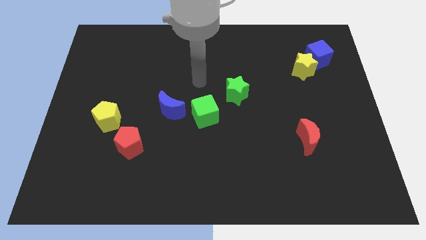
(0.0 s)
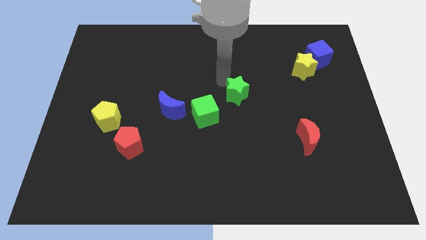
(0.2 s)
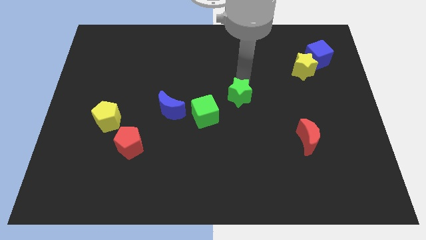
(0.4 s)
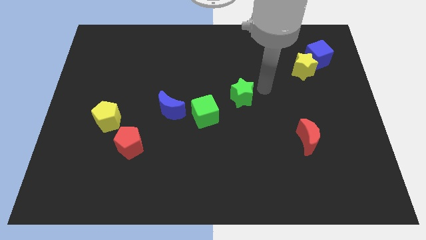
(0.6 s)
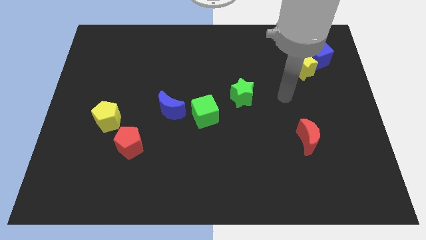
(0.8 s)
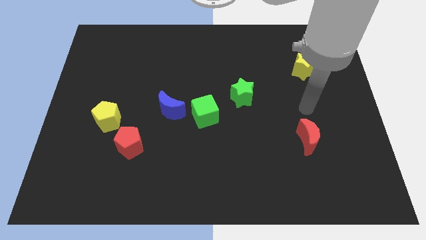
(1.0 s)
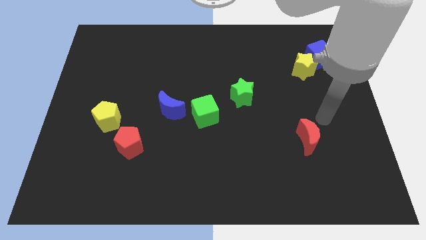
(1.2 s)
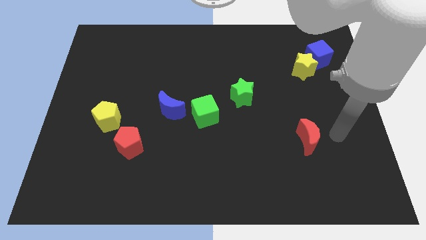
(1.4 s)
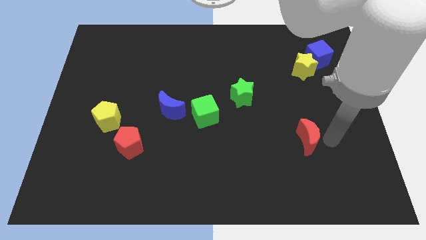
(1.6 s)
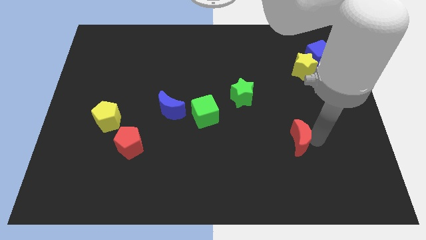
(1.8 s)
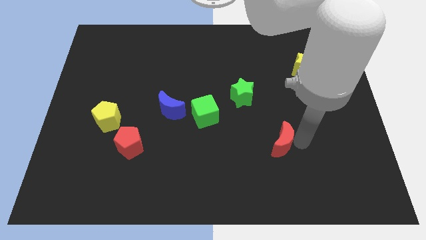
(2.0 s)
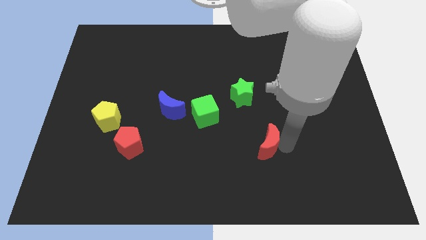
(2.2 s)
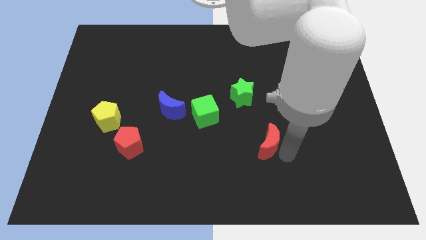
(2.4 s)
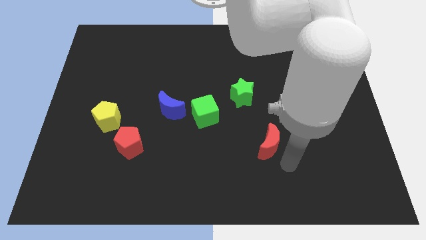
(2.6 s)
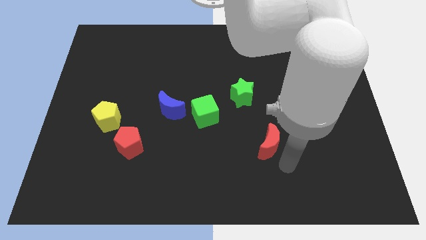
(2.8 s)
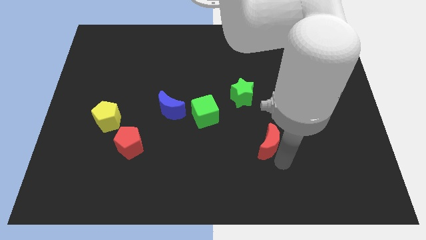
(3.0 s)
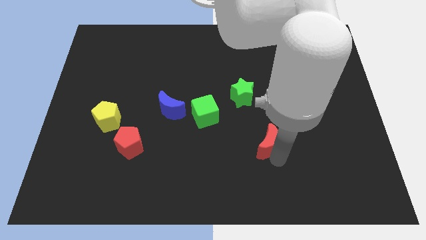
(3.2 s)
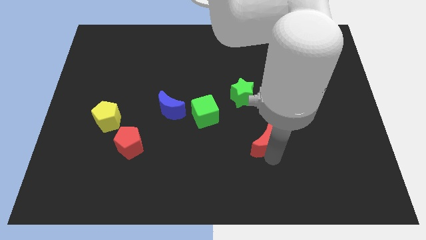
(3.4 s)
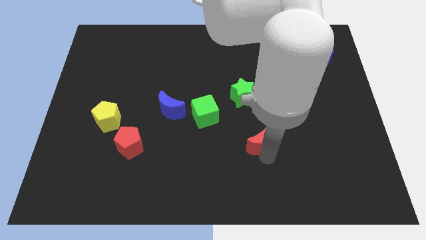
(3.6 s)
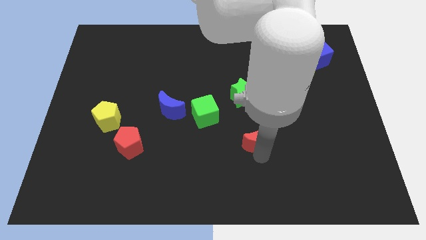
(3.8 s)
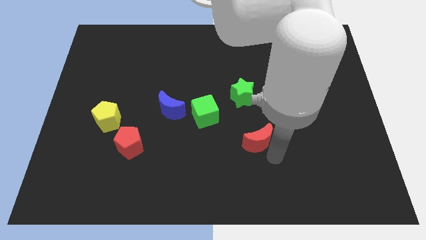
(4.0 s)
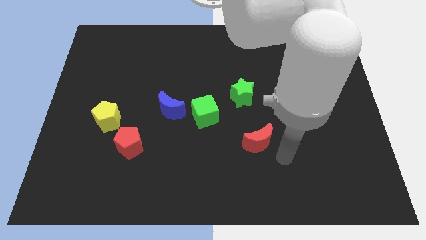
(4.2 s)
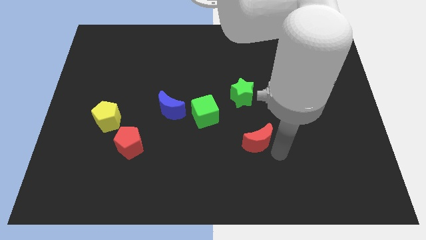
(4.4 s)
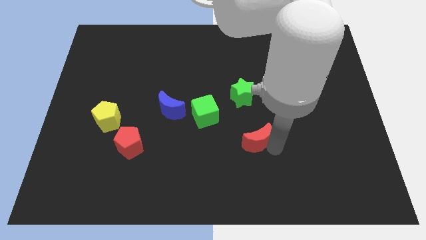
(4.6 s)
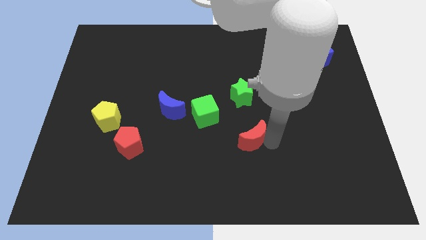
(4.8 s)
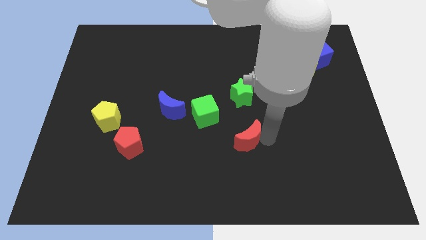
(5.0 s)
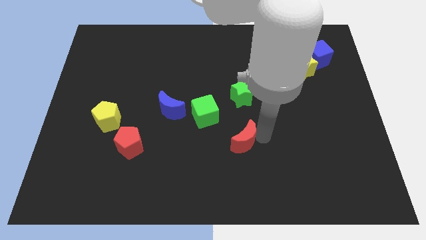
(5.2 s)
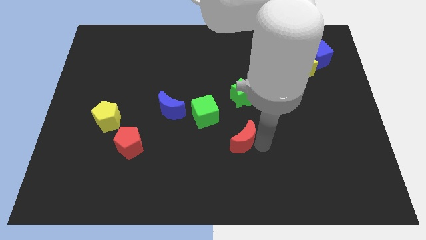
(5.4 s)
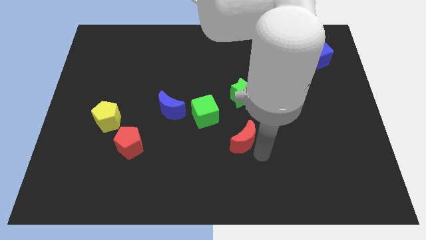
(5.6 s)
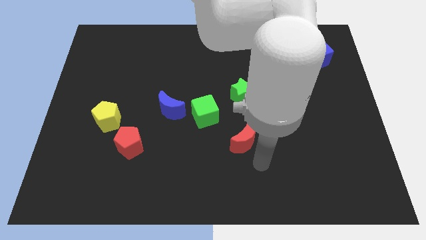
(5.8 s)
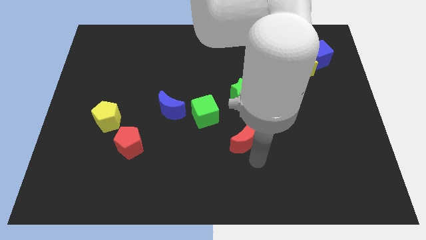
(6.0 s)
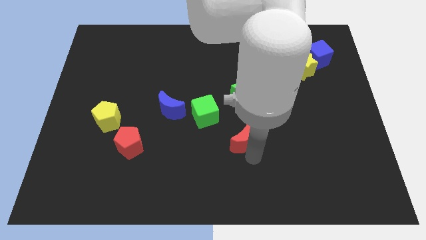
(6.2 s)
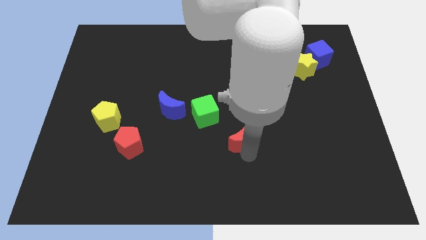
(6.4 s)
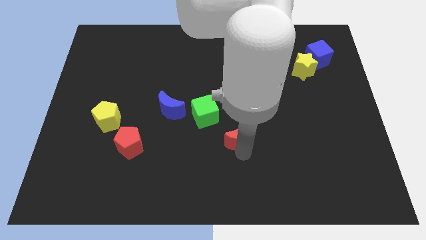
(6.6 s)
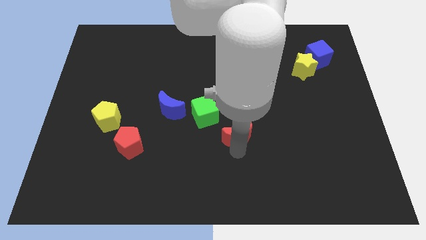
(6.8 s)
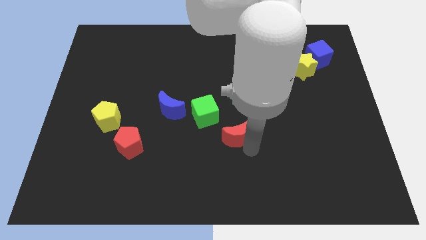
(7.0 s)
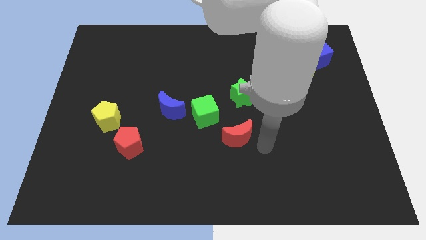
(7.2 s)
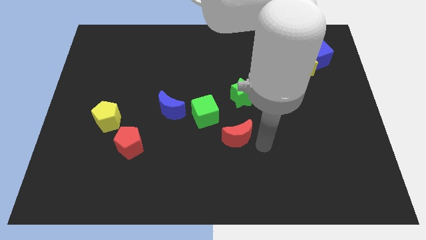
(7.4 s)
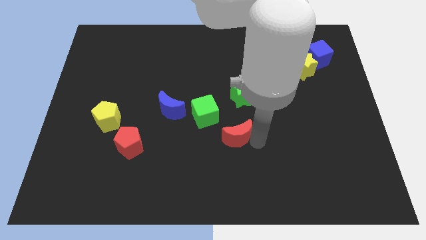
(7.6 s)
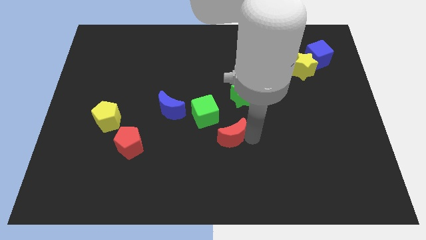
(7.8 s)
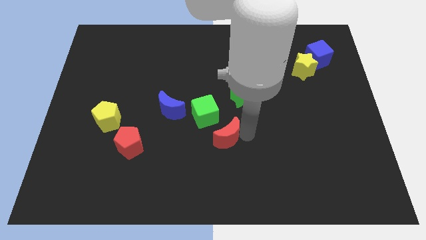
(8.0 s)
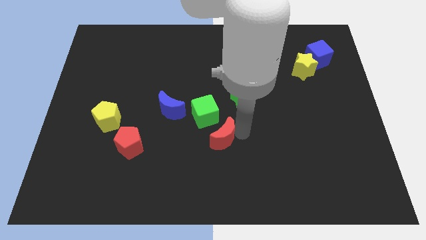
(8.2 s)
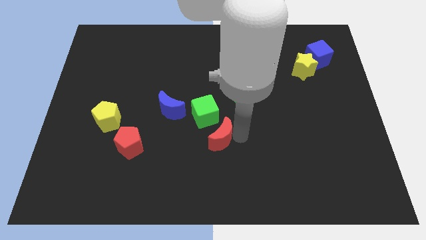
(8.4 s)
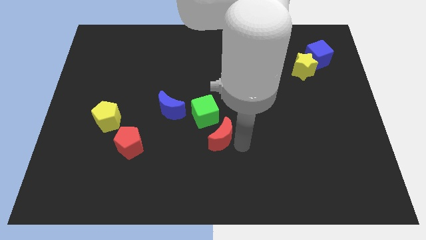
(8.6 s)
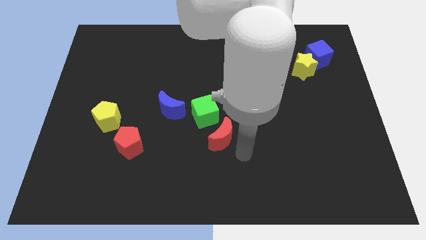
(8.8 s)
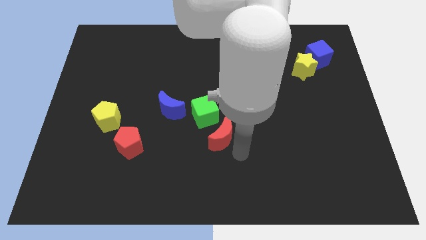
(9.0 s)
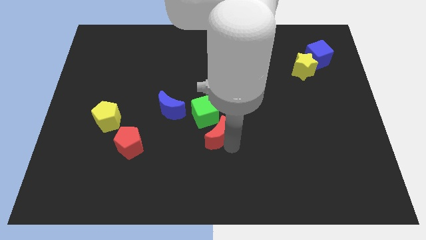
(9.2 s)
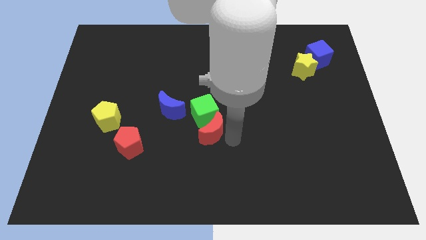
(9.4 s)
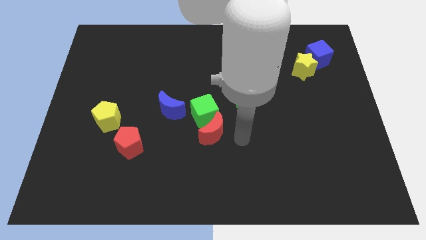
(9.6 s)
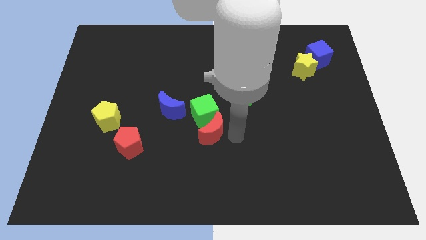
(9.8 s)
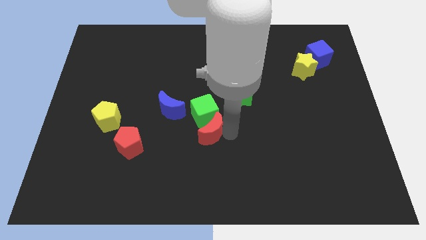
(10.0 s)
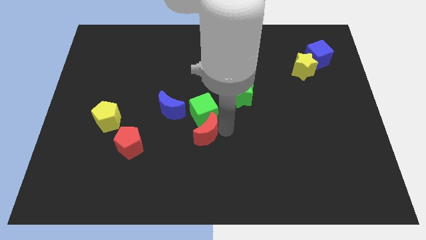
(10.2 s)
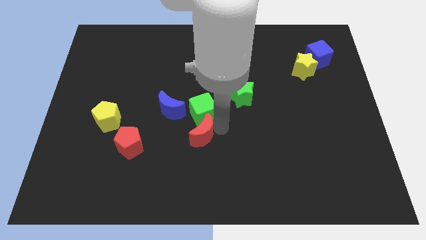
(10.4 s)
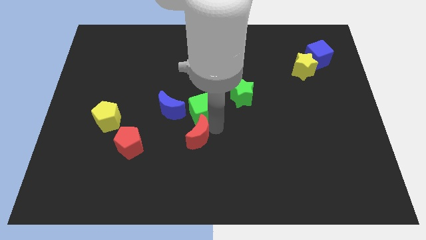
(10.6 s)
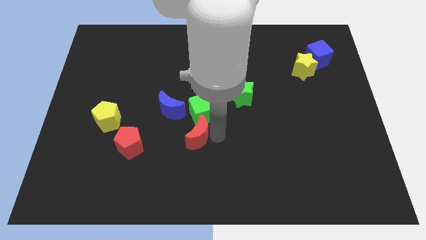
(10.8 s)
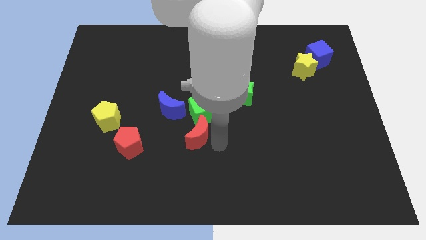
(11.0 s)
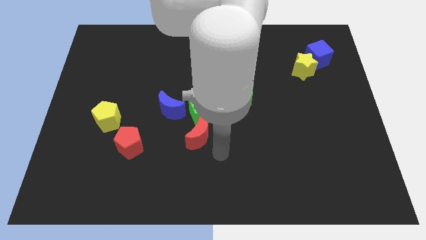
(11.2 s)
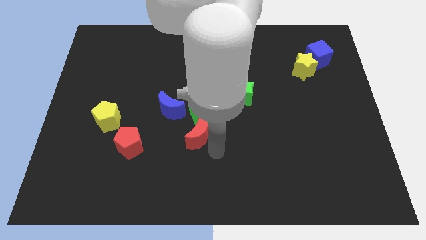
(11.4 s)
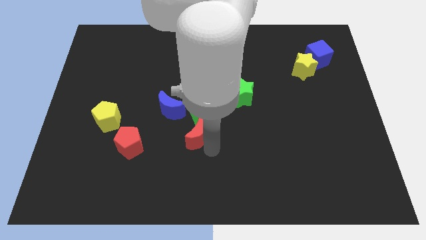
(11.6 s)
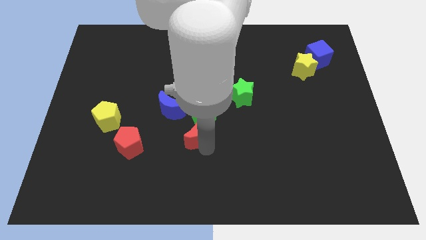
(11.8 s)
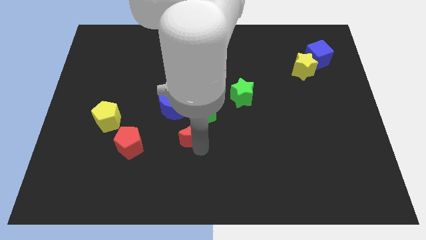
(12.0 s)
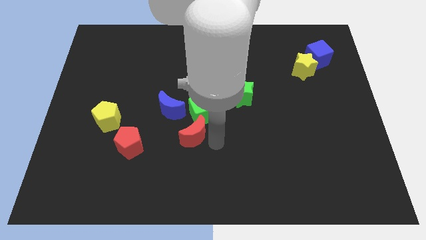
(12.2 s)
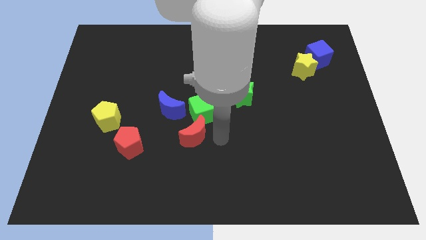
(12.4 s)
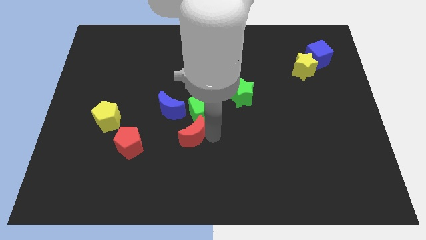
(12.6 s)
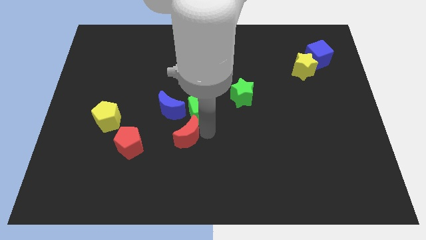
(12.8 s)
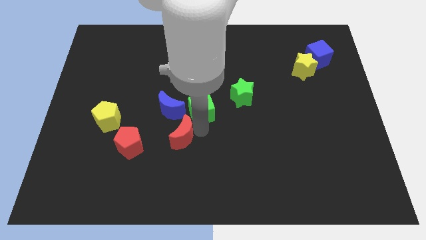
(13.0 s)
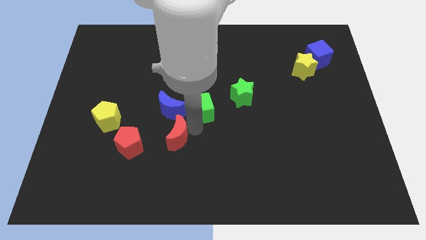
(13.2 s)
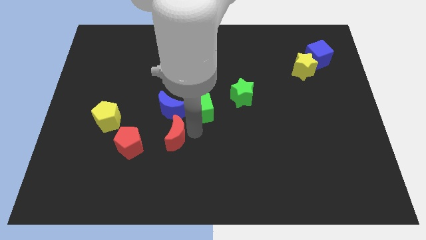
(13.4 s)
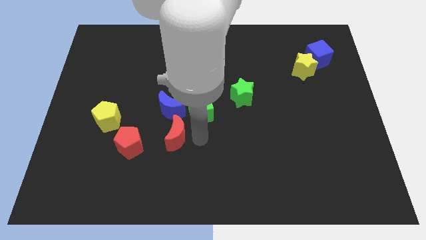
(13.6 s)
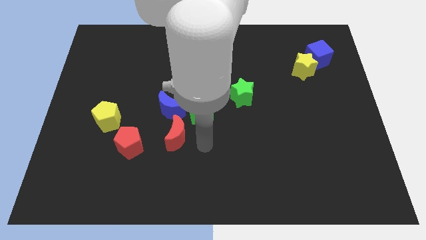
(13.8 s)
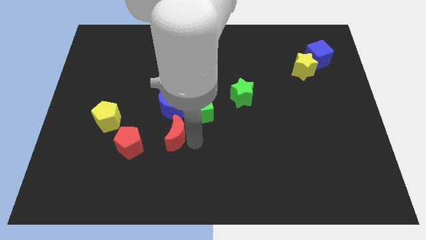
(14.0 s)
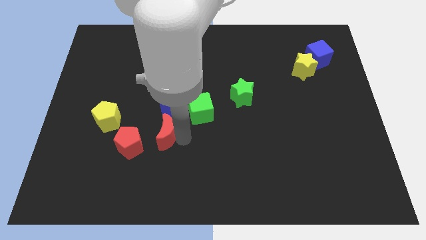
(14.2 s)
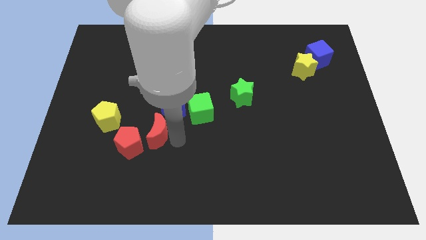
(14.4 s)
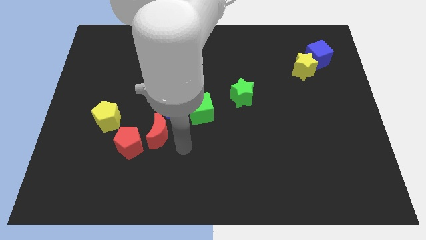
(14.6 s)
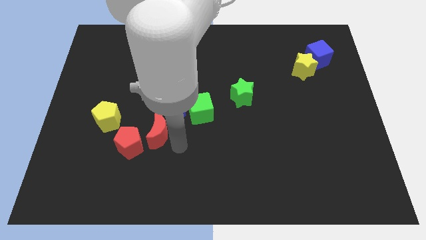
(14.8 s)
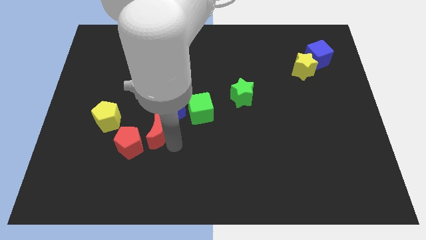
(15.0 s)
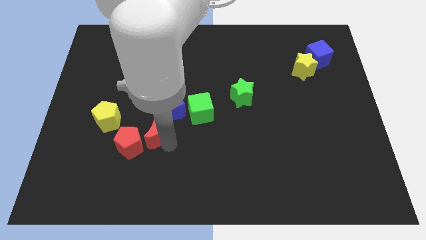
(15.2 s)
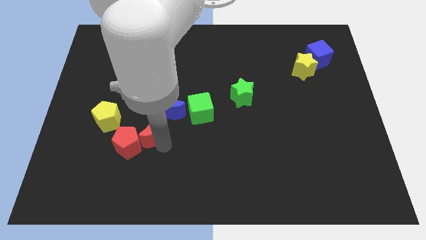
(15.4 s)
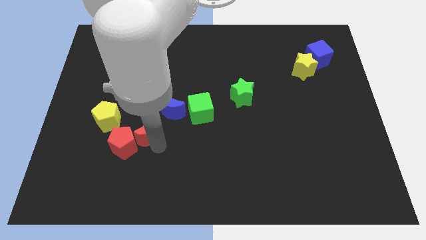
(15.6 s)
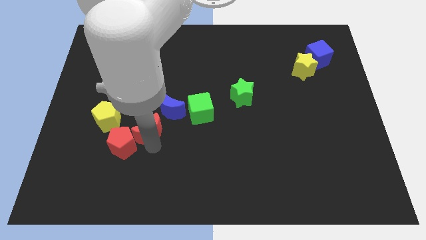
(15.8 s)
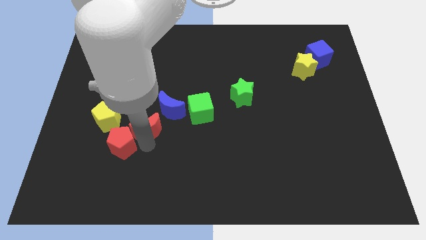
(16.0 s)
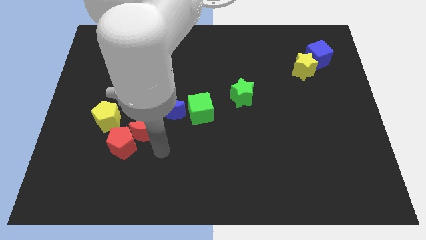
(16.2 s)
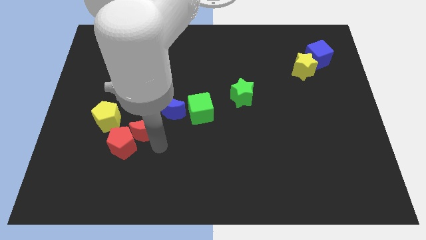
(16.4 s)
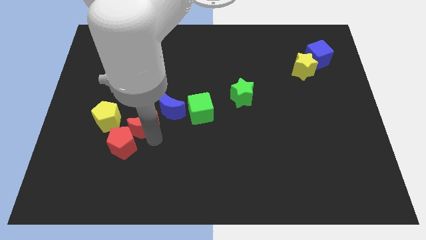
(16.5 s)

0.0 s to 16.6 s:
push the red moon to the top side of the red pentagon
